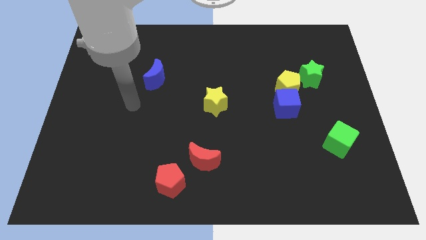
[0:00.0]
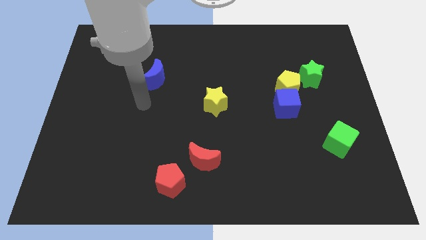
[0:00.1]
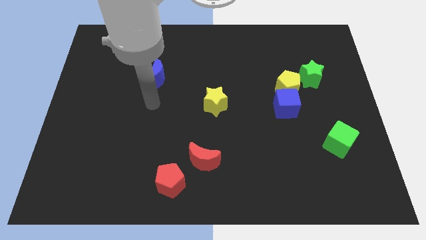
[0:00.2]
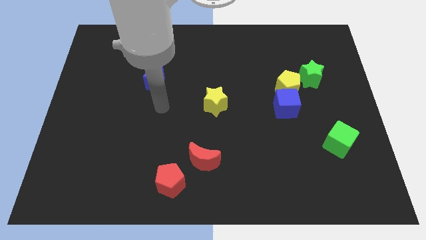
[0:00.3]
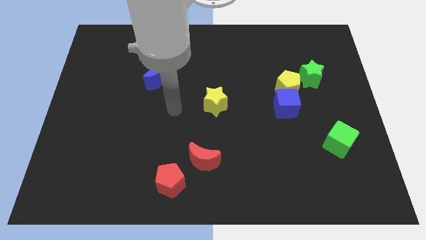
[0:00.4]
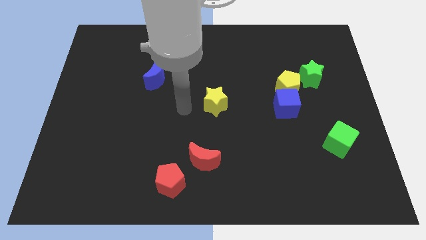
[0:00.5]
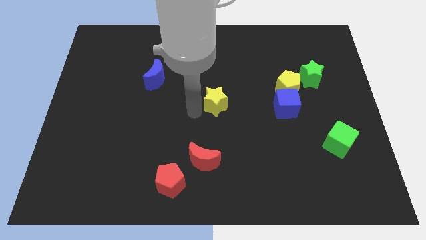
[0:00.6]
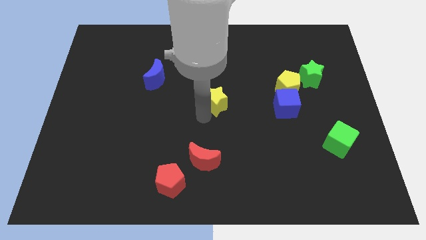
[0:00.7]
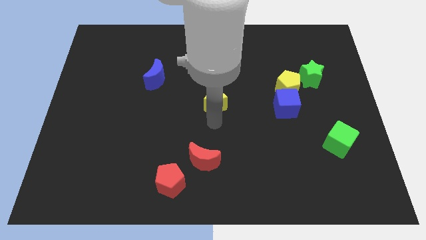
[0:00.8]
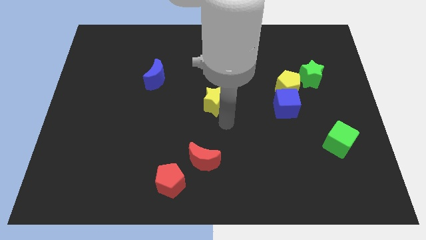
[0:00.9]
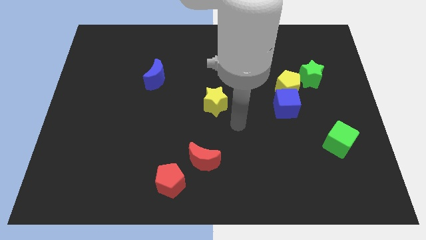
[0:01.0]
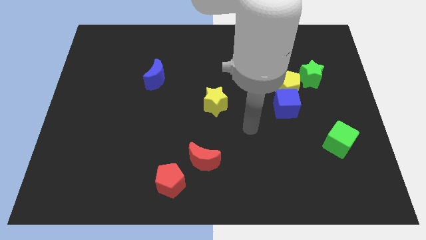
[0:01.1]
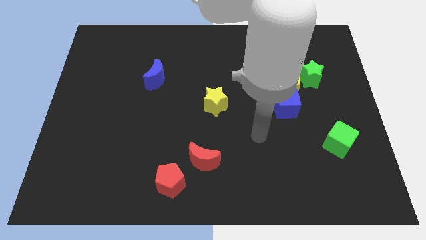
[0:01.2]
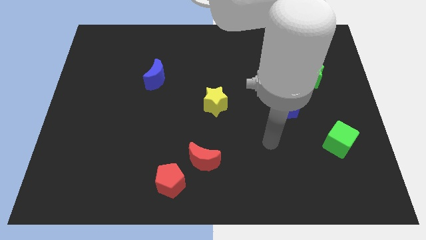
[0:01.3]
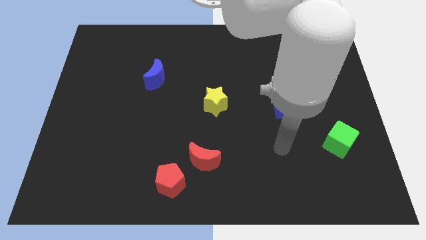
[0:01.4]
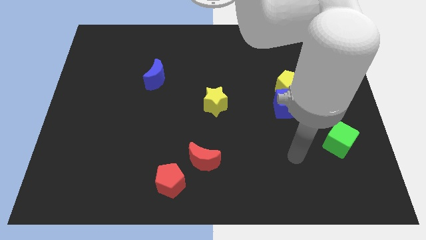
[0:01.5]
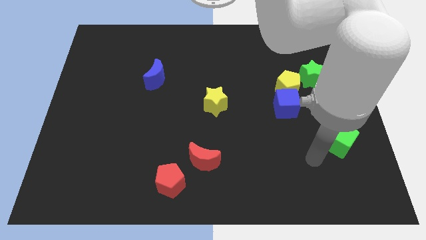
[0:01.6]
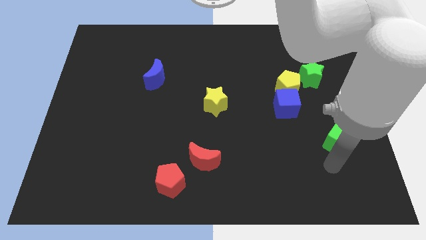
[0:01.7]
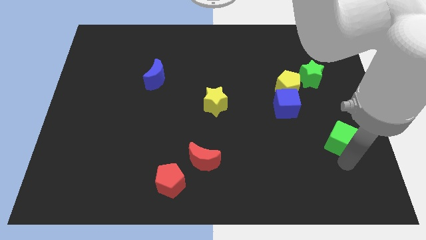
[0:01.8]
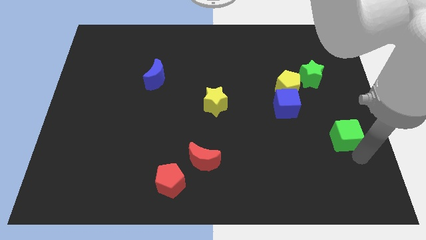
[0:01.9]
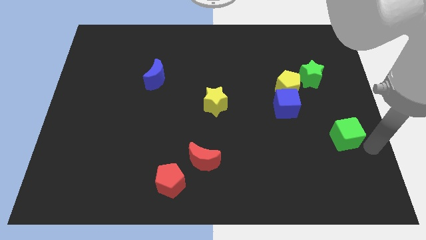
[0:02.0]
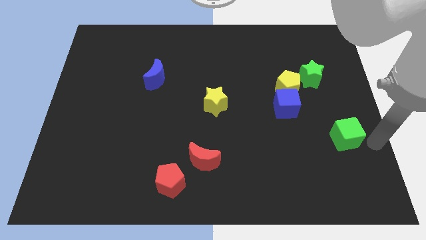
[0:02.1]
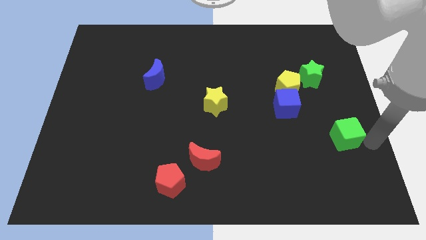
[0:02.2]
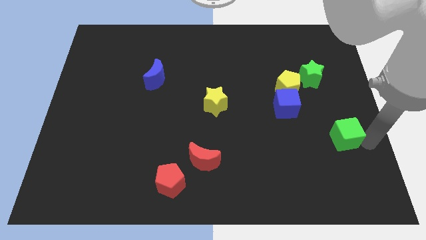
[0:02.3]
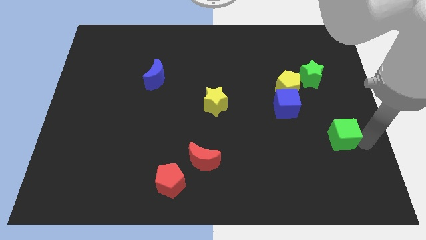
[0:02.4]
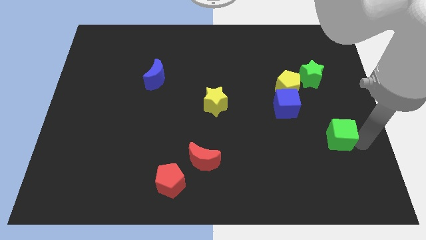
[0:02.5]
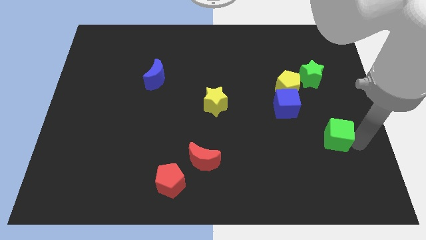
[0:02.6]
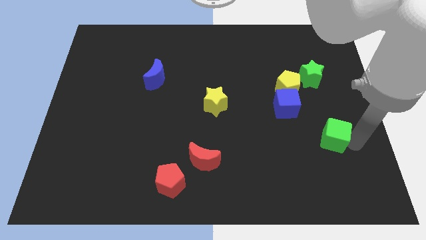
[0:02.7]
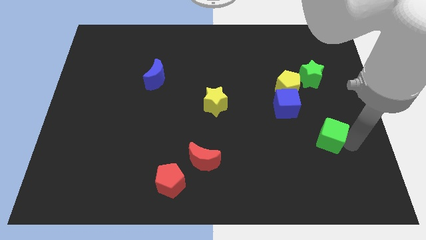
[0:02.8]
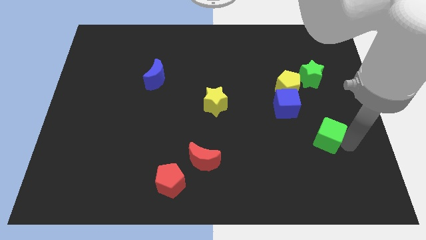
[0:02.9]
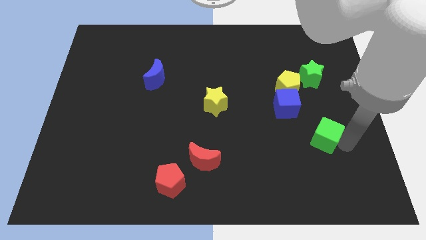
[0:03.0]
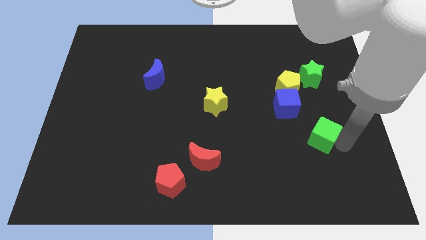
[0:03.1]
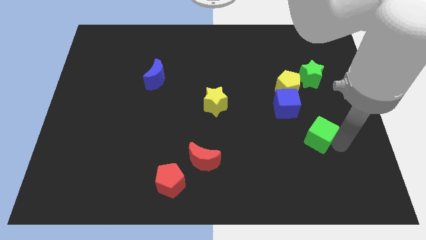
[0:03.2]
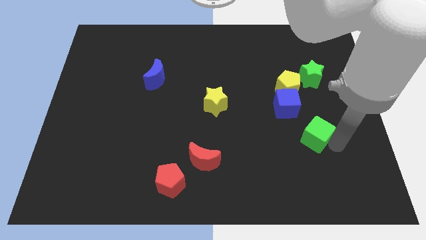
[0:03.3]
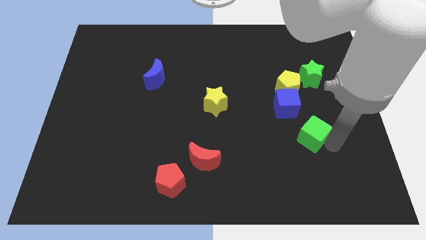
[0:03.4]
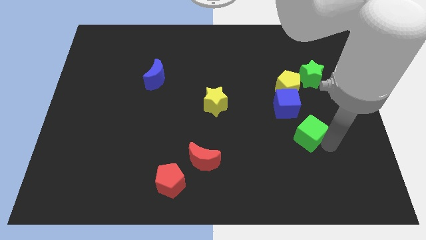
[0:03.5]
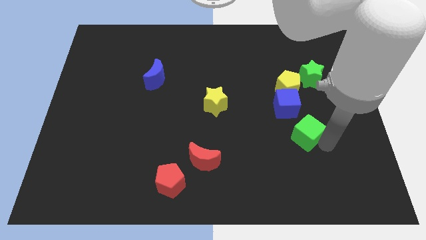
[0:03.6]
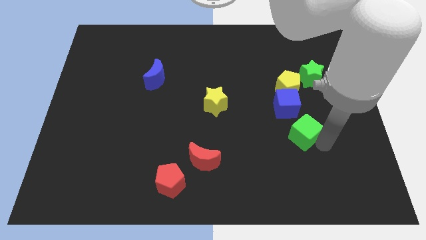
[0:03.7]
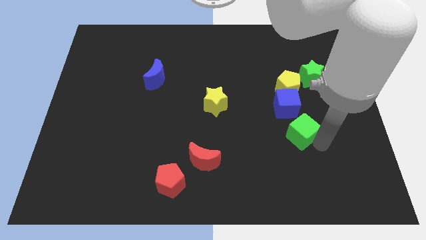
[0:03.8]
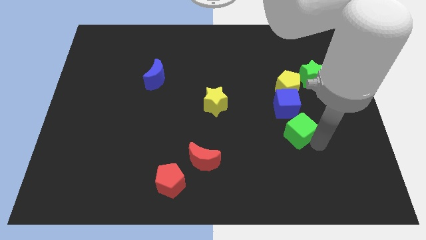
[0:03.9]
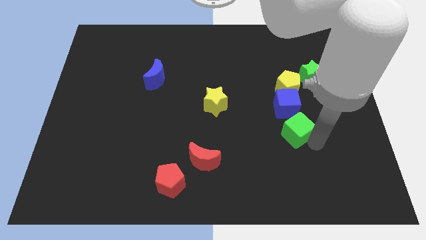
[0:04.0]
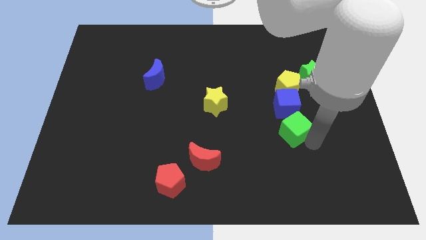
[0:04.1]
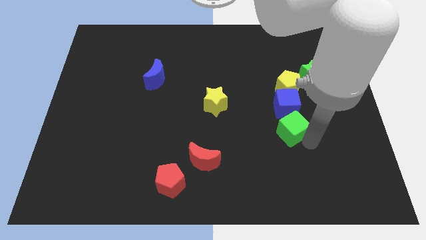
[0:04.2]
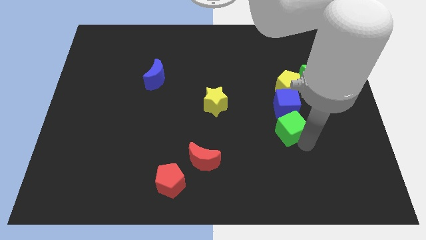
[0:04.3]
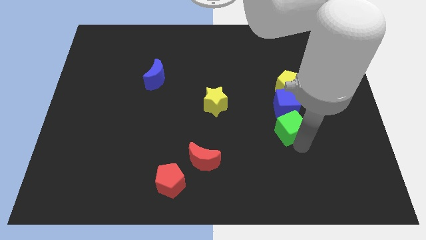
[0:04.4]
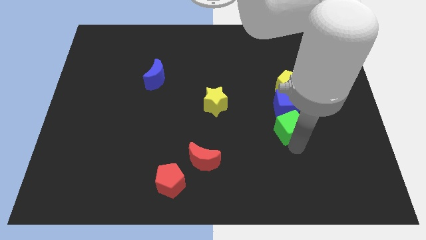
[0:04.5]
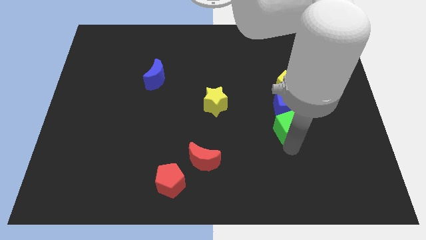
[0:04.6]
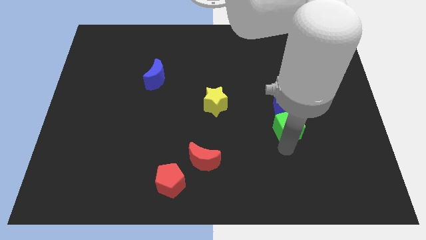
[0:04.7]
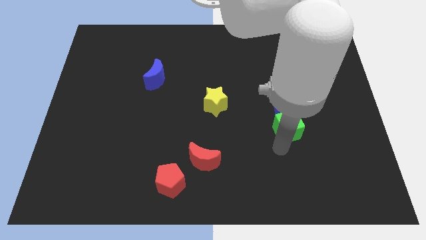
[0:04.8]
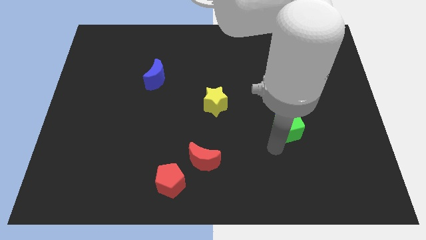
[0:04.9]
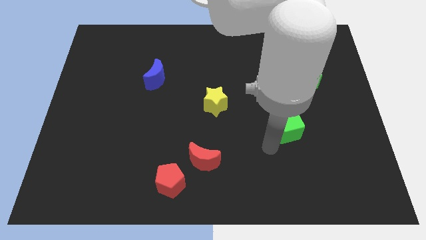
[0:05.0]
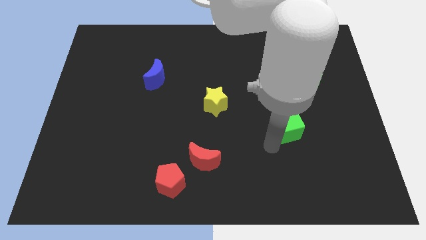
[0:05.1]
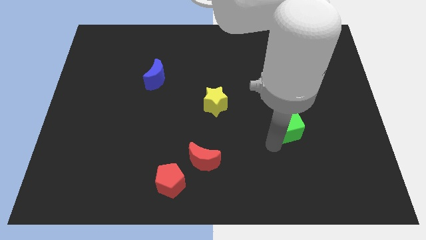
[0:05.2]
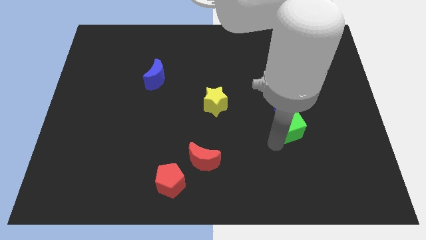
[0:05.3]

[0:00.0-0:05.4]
put the green cube next to the blue cube

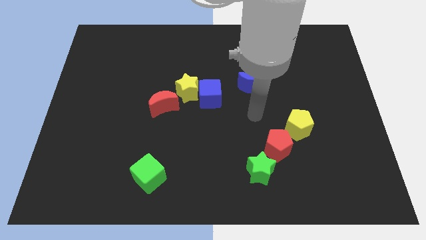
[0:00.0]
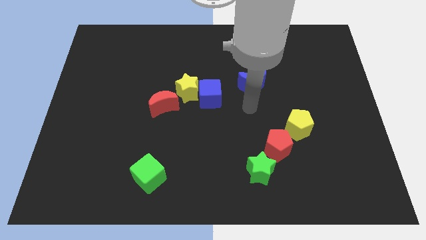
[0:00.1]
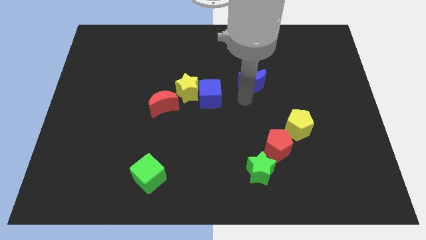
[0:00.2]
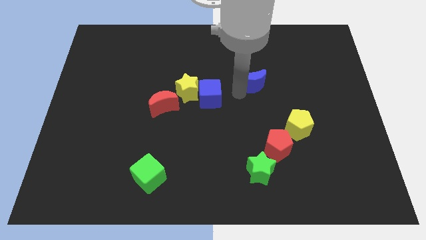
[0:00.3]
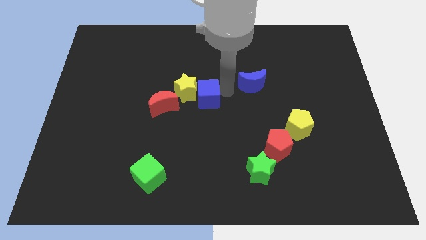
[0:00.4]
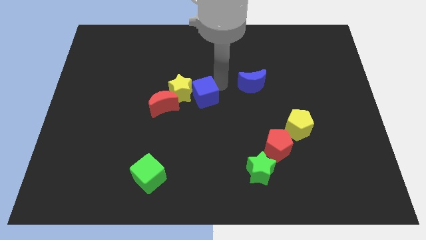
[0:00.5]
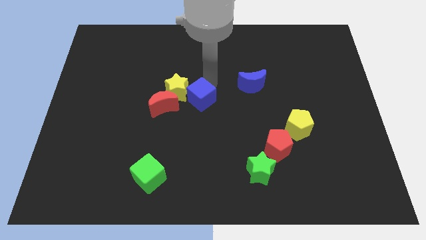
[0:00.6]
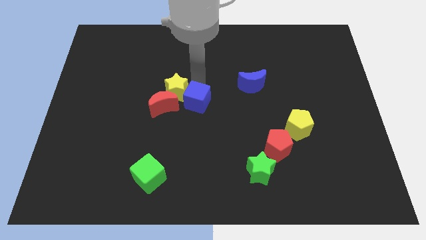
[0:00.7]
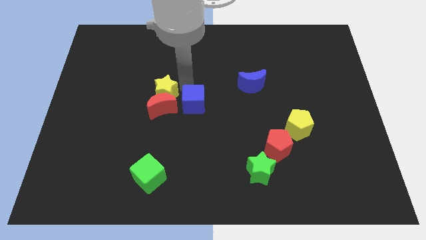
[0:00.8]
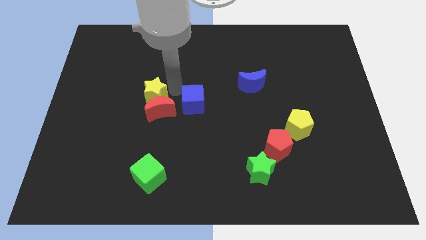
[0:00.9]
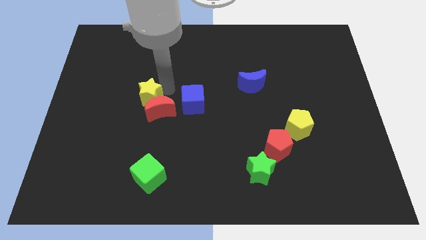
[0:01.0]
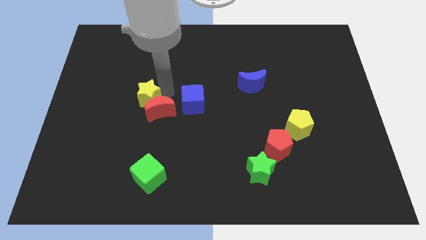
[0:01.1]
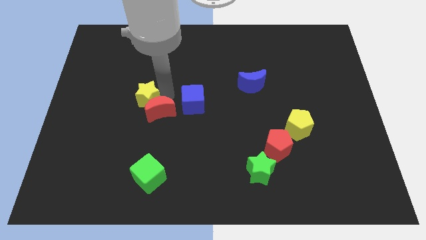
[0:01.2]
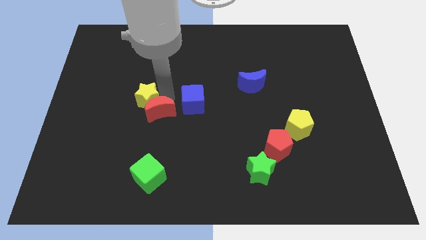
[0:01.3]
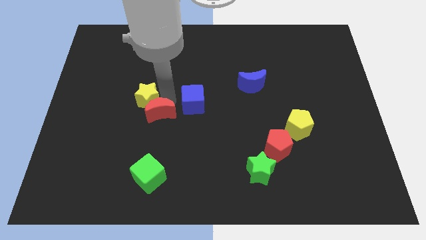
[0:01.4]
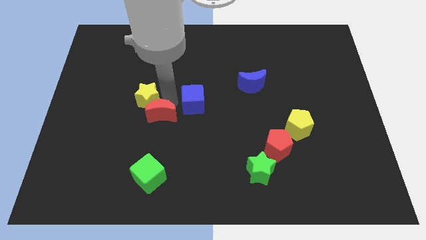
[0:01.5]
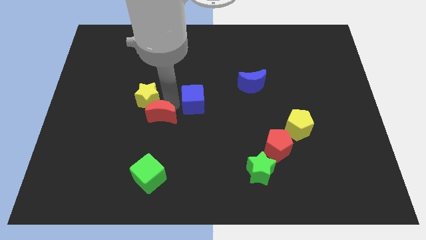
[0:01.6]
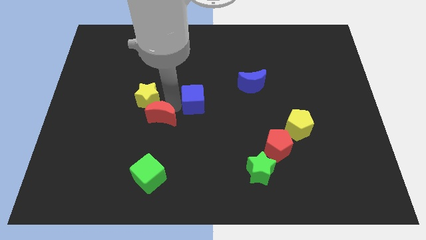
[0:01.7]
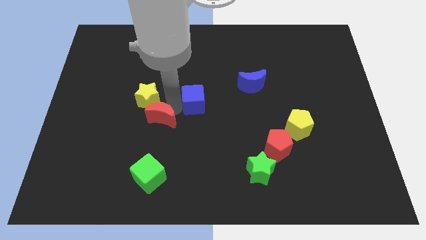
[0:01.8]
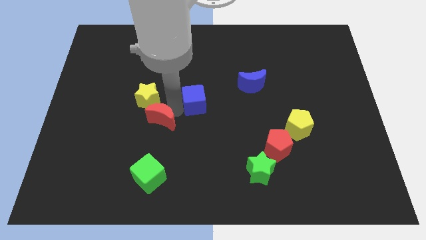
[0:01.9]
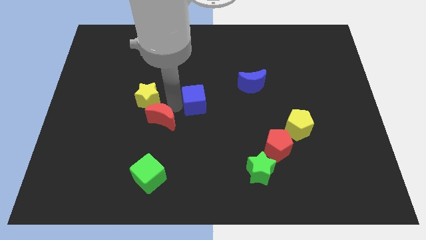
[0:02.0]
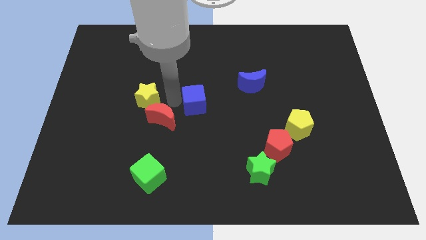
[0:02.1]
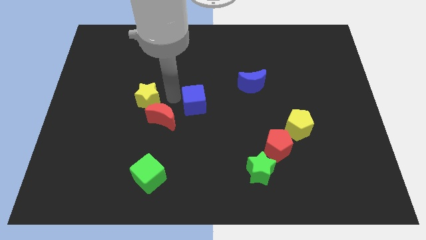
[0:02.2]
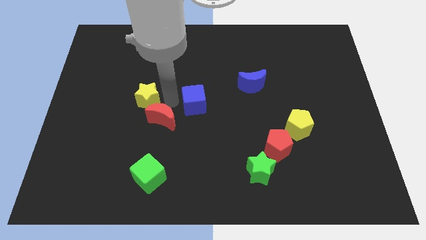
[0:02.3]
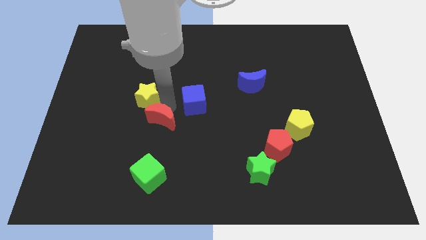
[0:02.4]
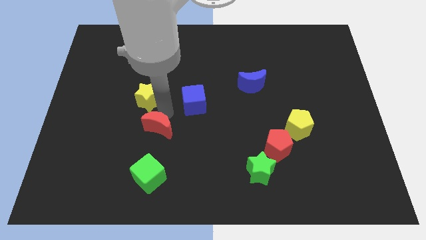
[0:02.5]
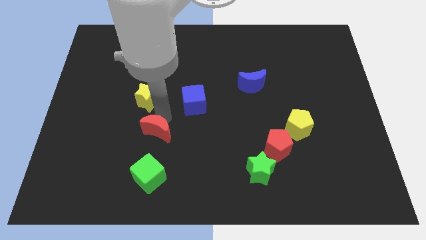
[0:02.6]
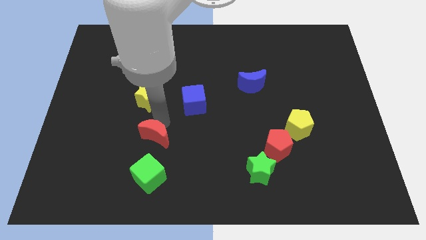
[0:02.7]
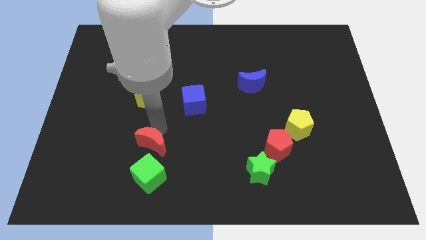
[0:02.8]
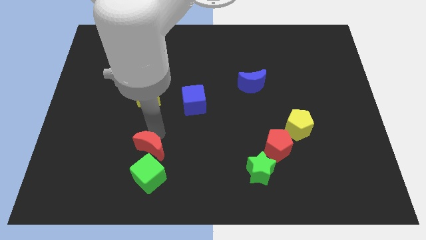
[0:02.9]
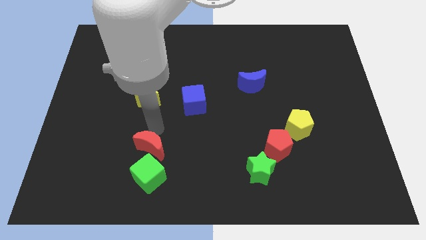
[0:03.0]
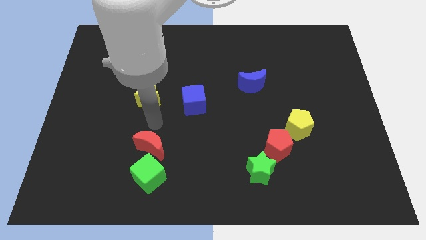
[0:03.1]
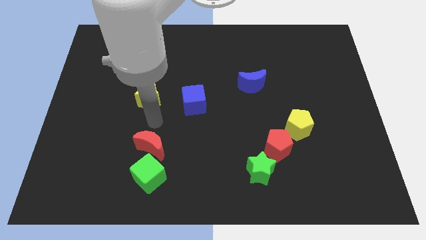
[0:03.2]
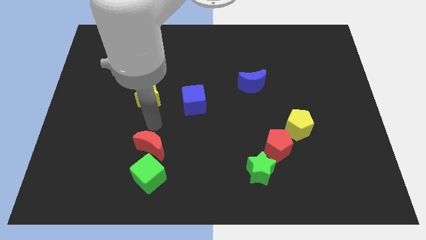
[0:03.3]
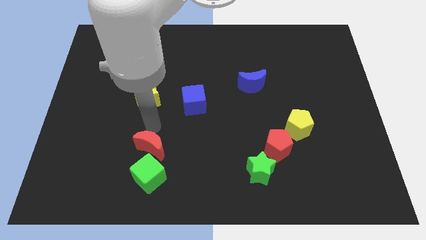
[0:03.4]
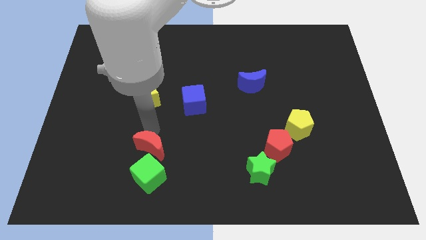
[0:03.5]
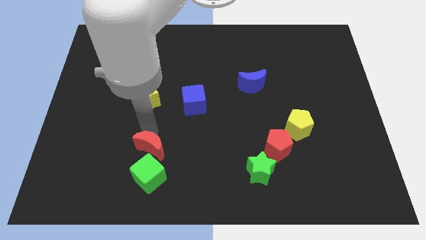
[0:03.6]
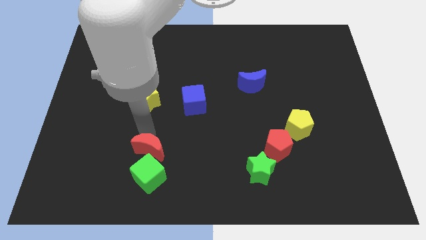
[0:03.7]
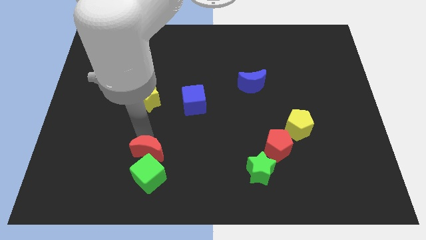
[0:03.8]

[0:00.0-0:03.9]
move the red moon towards the green cube
